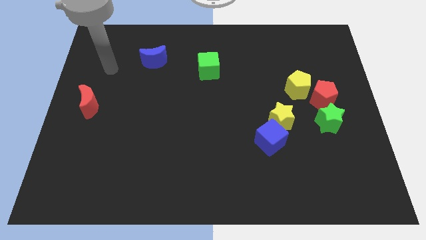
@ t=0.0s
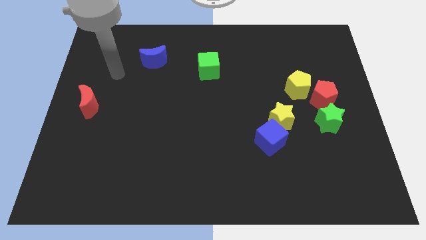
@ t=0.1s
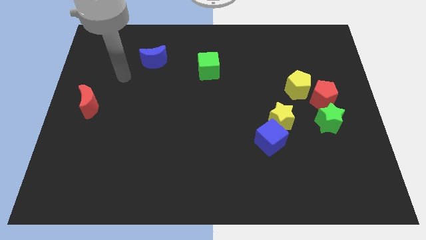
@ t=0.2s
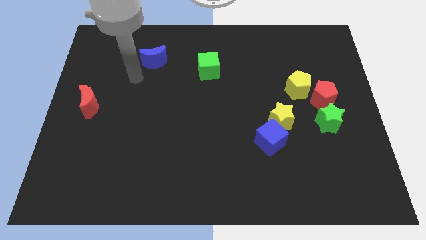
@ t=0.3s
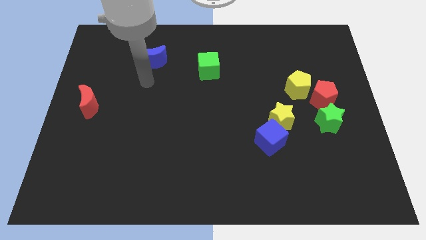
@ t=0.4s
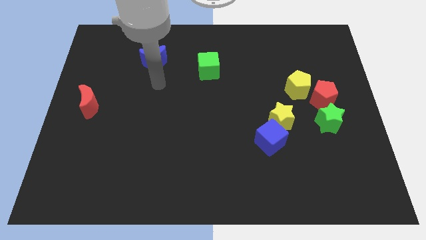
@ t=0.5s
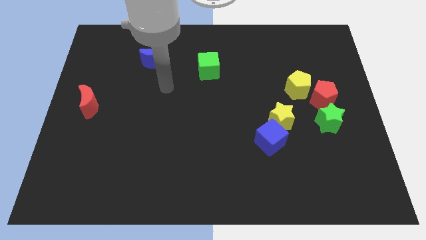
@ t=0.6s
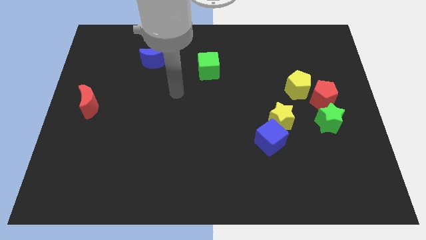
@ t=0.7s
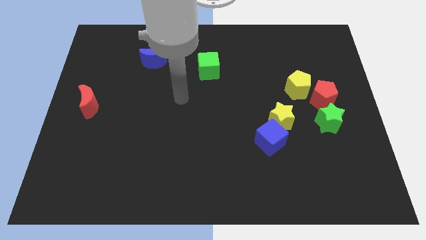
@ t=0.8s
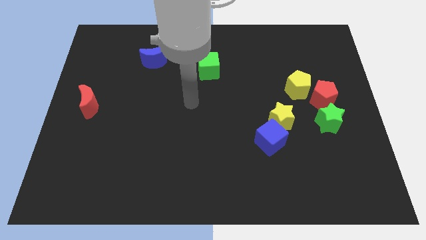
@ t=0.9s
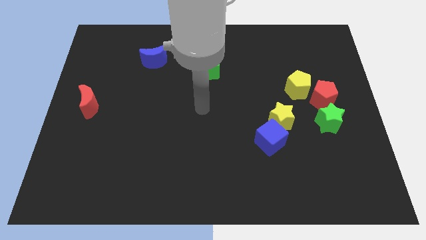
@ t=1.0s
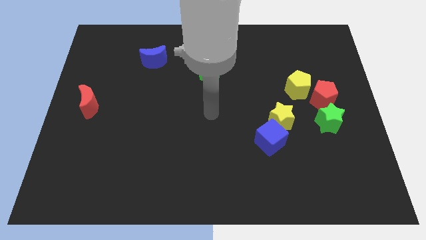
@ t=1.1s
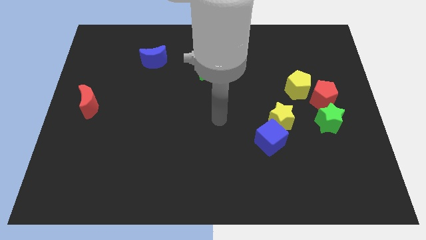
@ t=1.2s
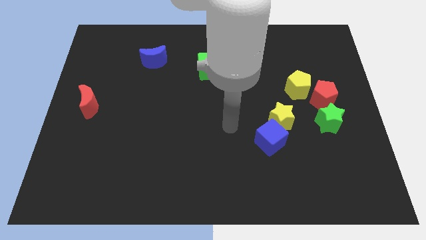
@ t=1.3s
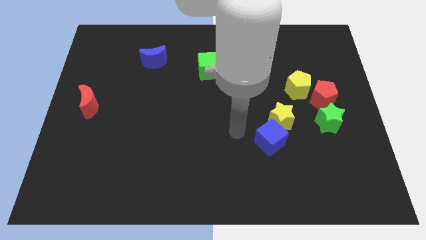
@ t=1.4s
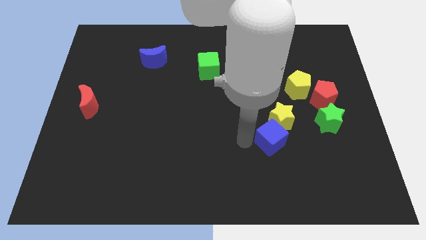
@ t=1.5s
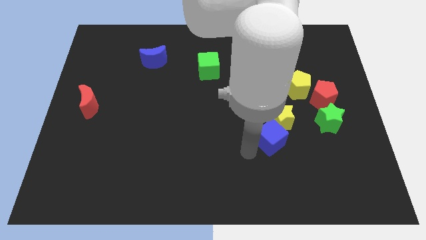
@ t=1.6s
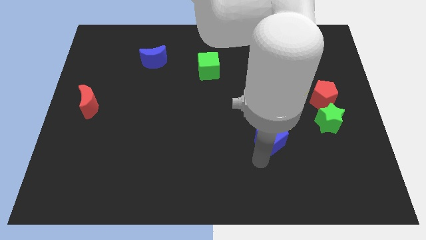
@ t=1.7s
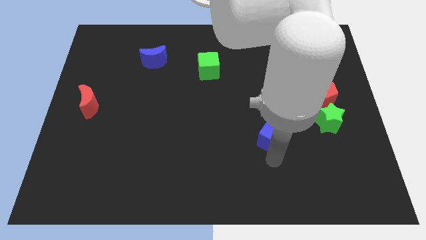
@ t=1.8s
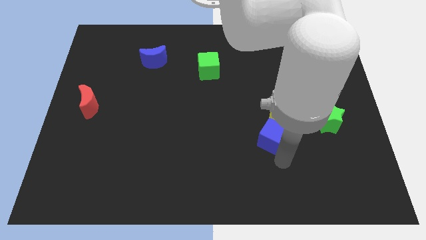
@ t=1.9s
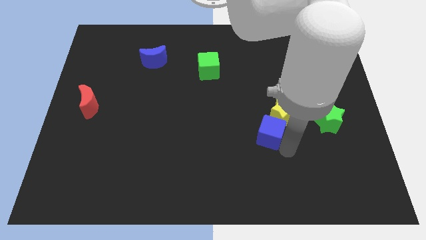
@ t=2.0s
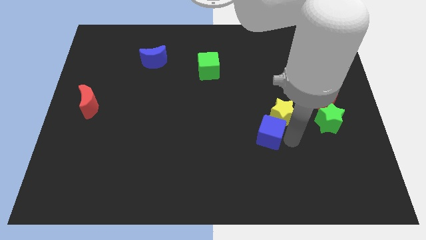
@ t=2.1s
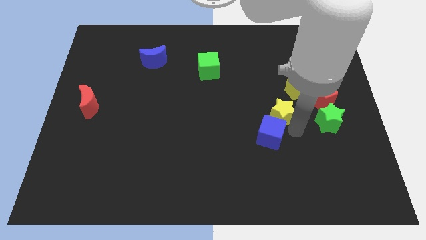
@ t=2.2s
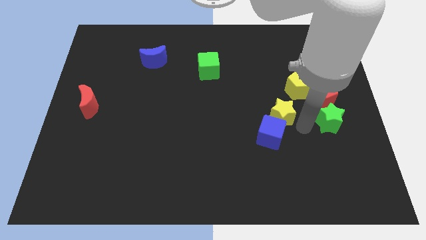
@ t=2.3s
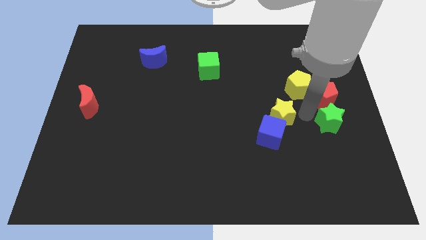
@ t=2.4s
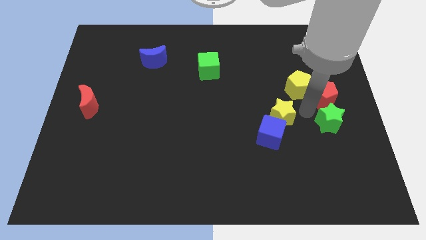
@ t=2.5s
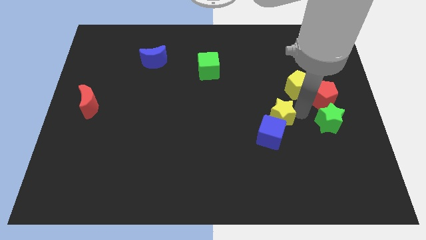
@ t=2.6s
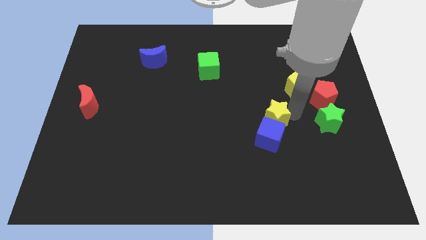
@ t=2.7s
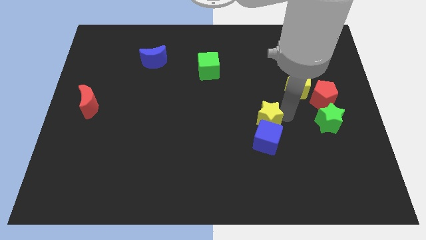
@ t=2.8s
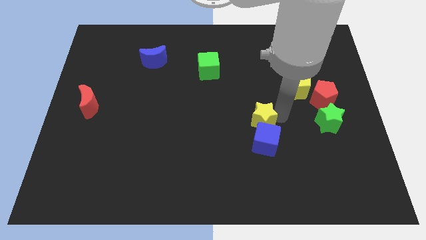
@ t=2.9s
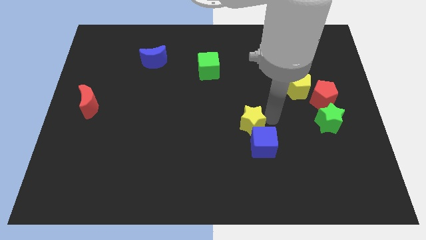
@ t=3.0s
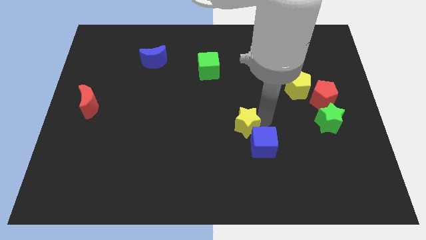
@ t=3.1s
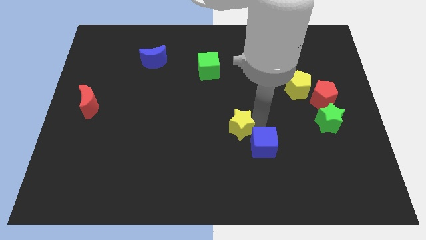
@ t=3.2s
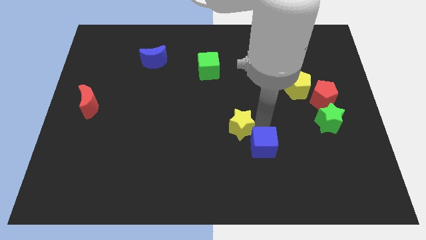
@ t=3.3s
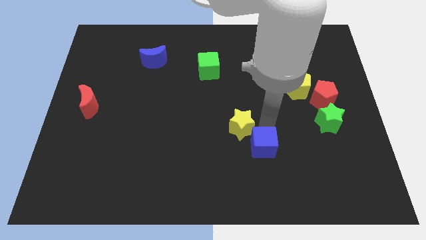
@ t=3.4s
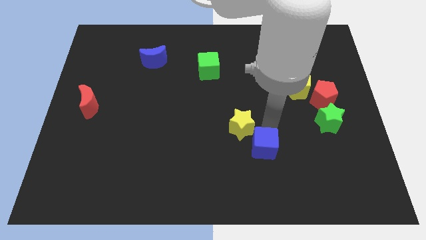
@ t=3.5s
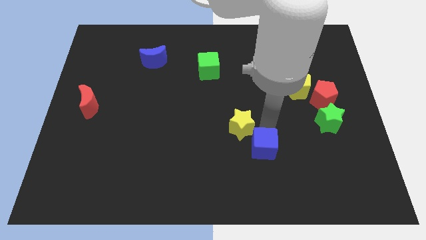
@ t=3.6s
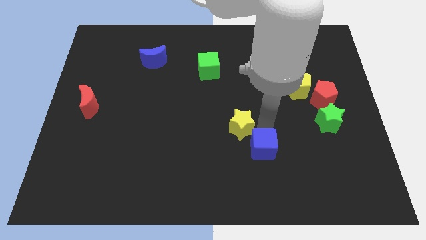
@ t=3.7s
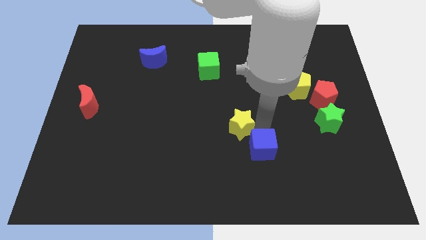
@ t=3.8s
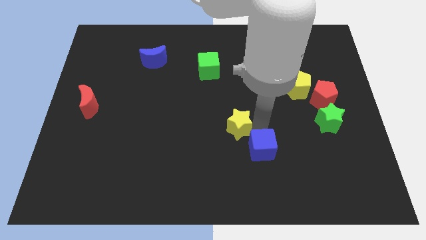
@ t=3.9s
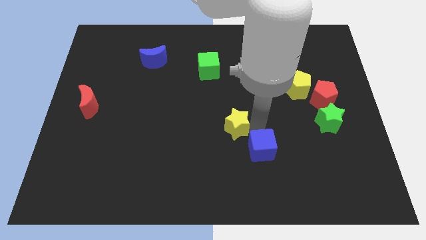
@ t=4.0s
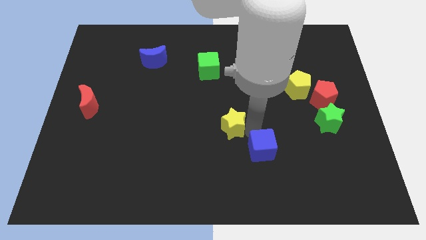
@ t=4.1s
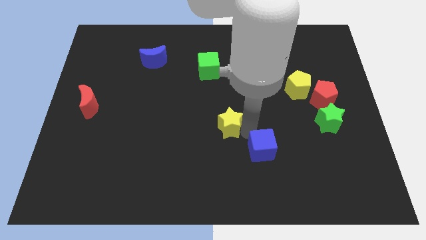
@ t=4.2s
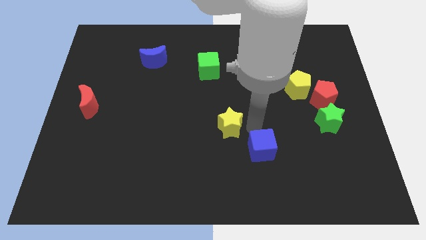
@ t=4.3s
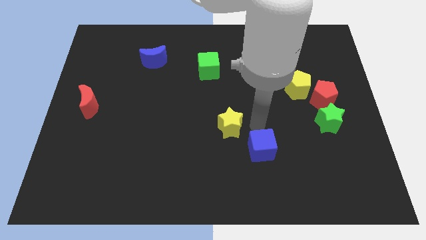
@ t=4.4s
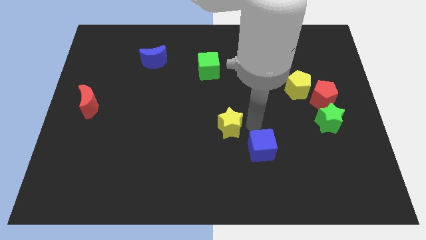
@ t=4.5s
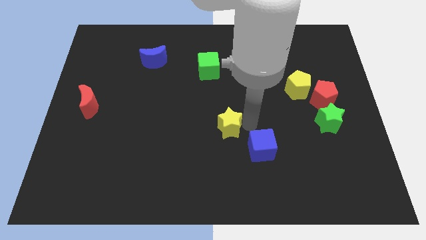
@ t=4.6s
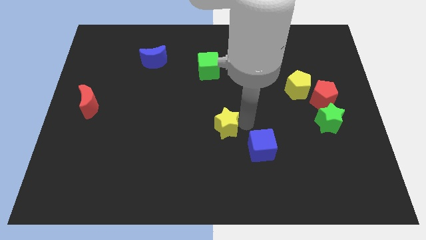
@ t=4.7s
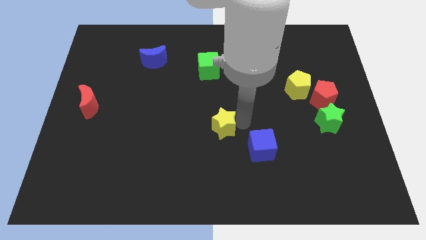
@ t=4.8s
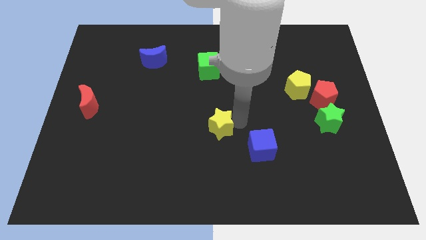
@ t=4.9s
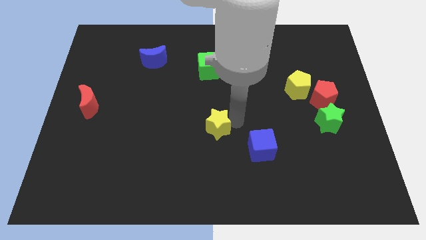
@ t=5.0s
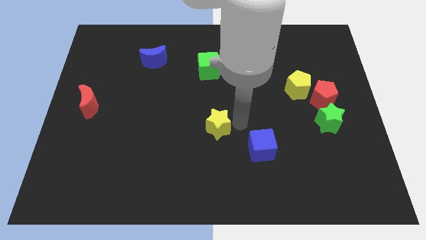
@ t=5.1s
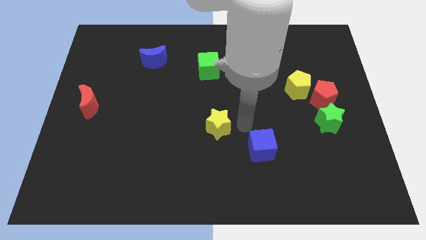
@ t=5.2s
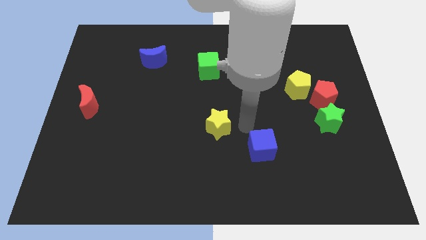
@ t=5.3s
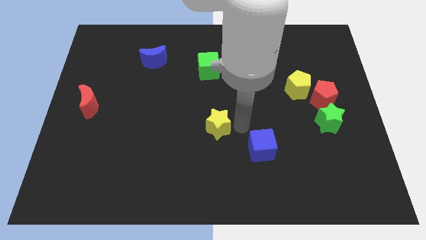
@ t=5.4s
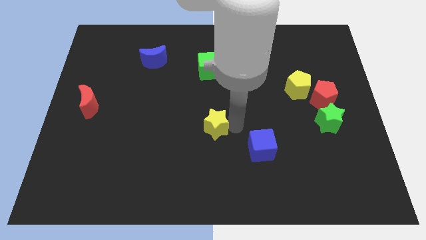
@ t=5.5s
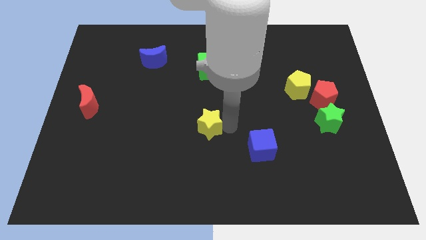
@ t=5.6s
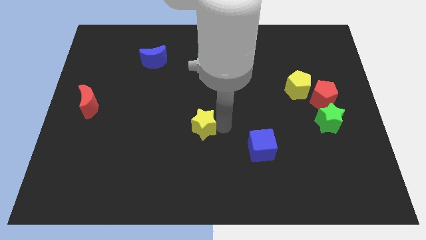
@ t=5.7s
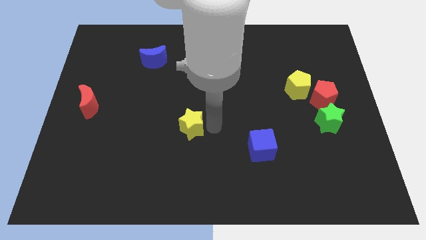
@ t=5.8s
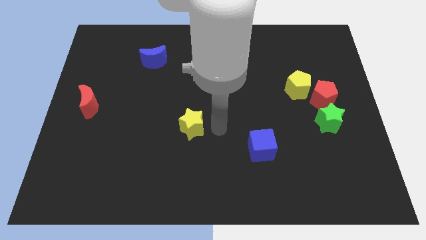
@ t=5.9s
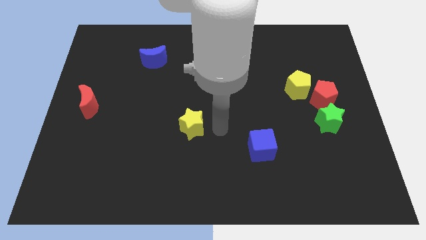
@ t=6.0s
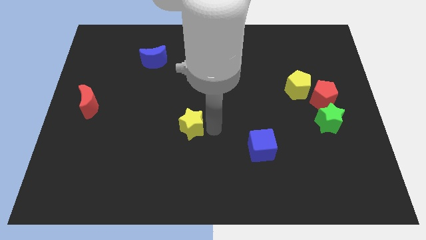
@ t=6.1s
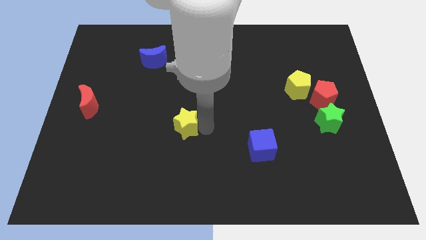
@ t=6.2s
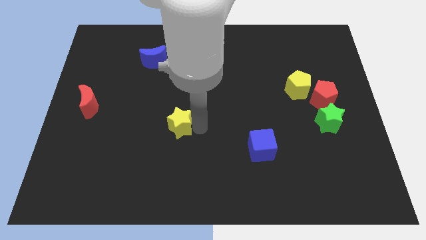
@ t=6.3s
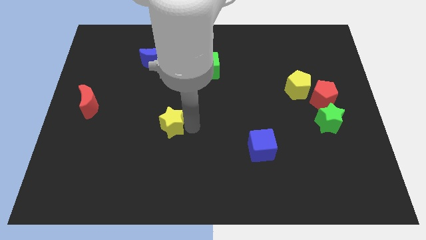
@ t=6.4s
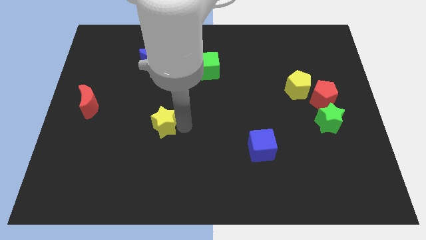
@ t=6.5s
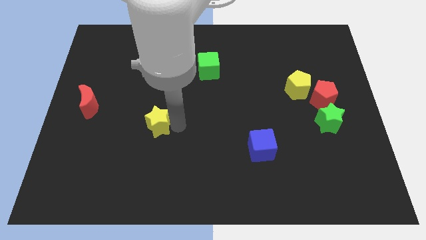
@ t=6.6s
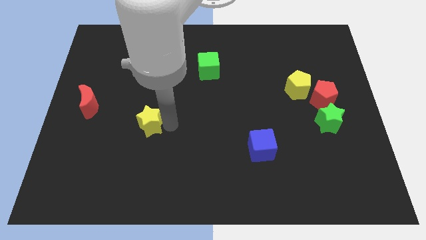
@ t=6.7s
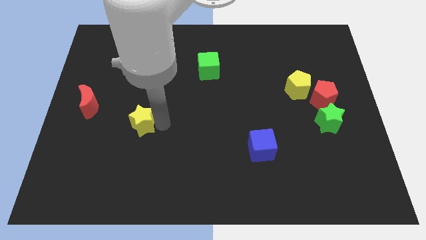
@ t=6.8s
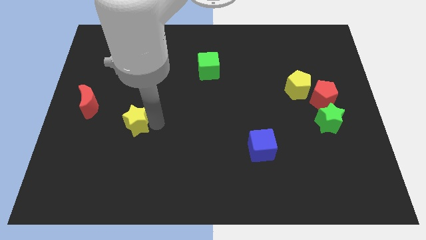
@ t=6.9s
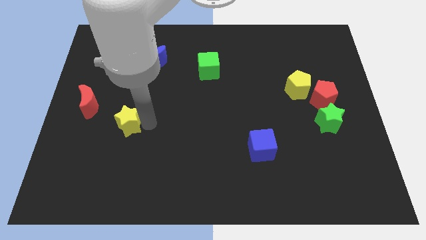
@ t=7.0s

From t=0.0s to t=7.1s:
move the yellow star to the bottom right side of the red moon

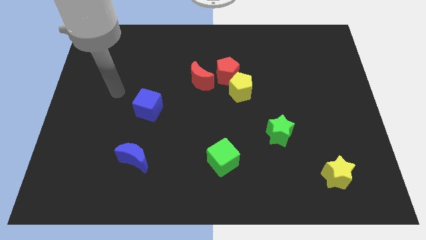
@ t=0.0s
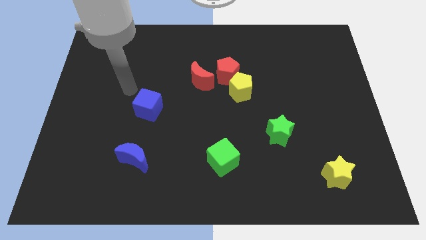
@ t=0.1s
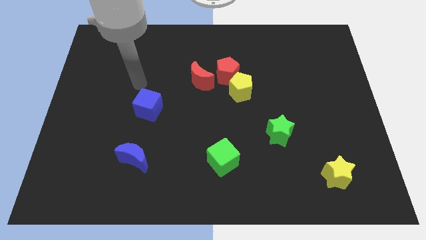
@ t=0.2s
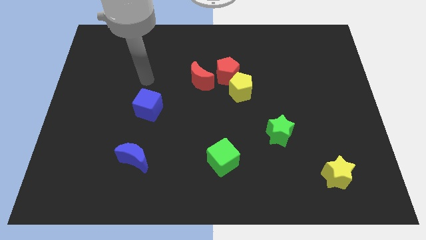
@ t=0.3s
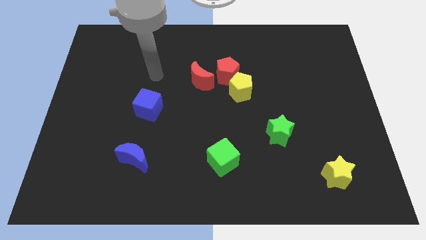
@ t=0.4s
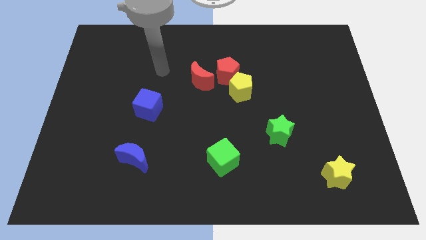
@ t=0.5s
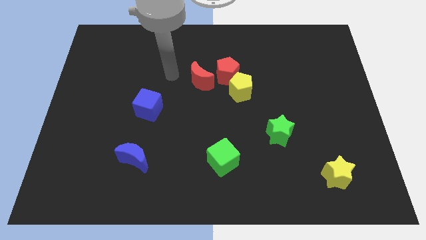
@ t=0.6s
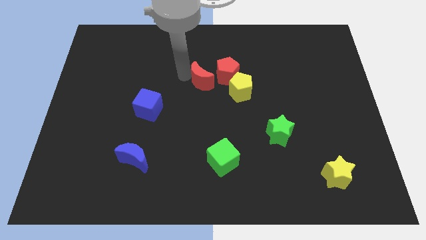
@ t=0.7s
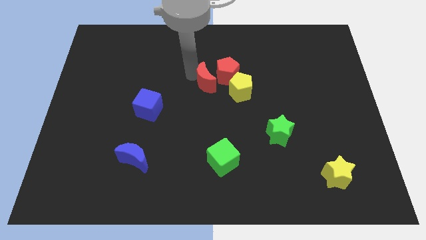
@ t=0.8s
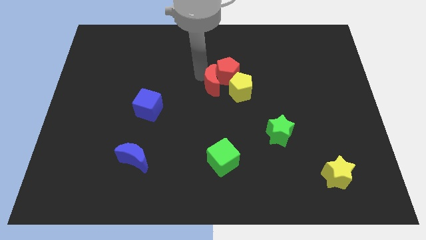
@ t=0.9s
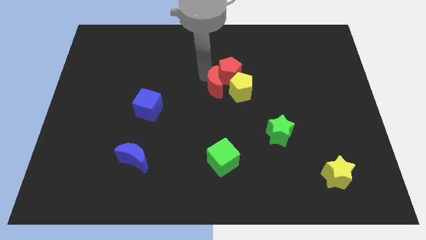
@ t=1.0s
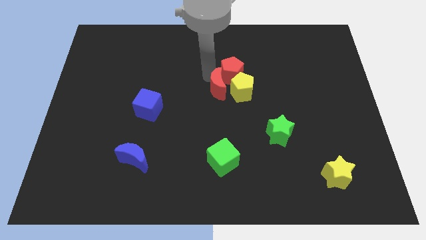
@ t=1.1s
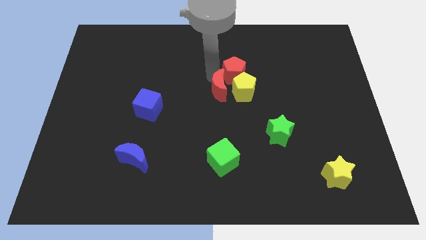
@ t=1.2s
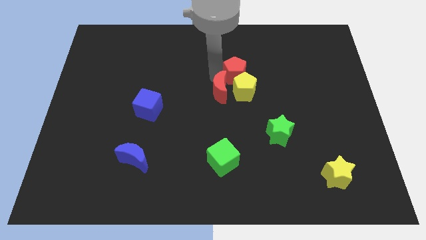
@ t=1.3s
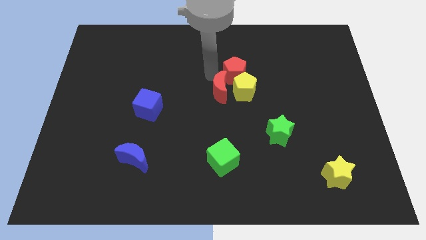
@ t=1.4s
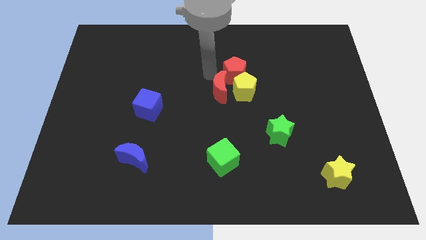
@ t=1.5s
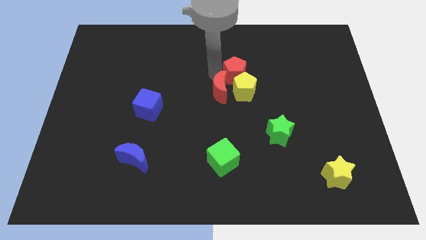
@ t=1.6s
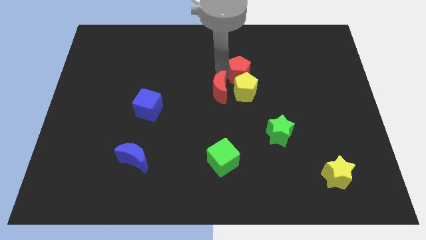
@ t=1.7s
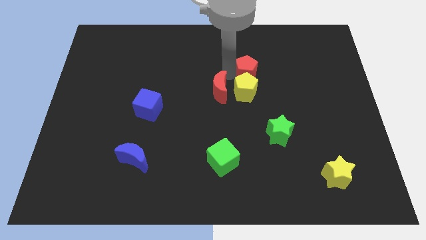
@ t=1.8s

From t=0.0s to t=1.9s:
push the red pentagon diagonally up and to the right of the yellow pentagon
